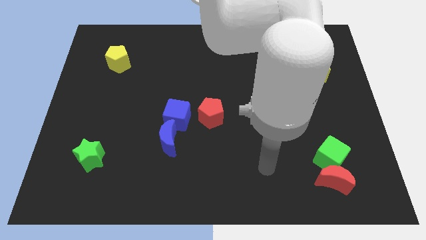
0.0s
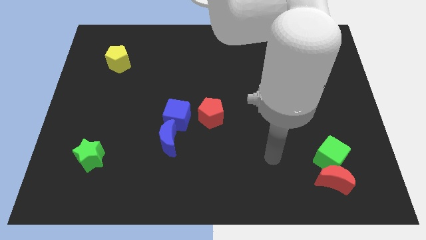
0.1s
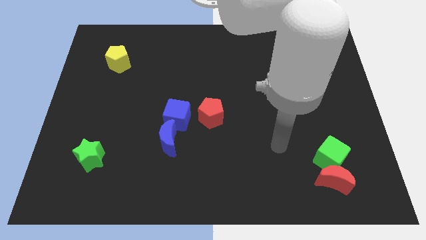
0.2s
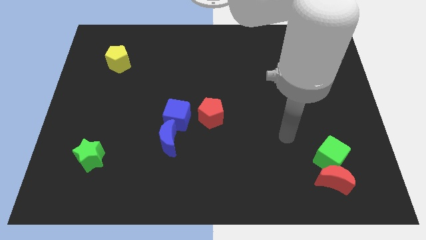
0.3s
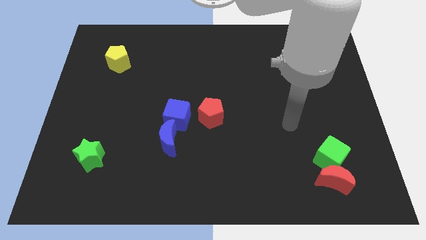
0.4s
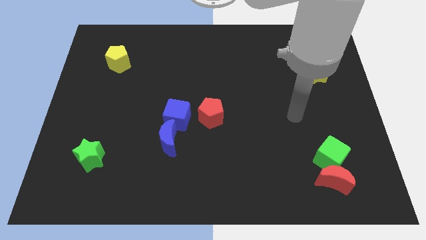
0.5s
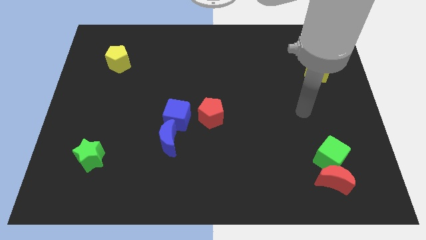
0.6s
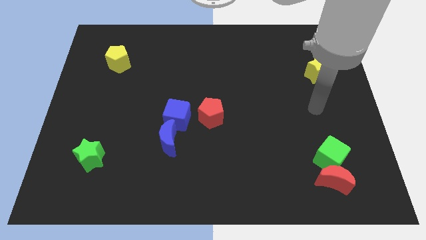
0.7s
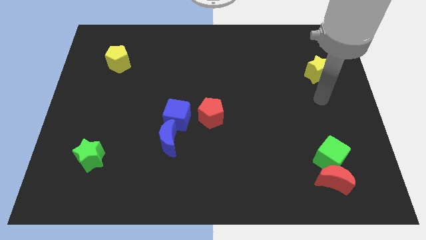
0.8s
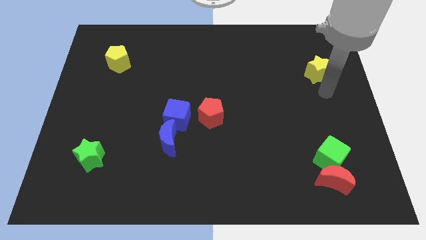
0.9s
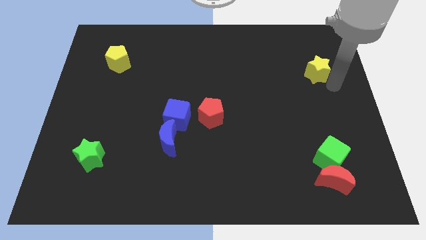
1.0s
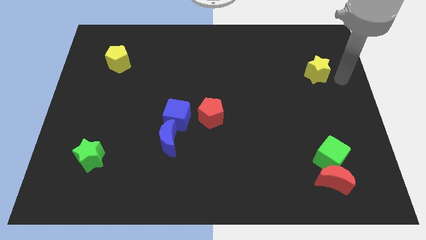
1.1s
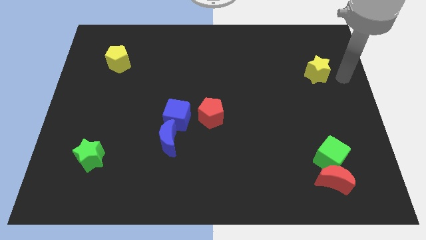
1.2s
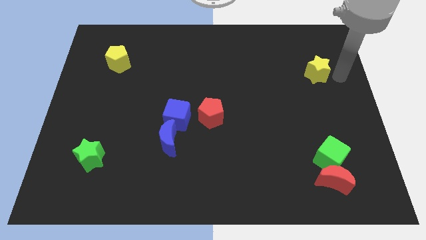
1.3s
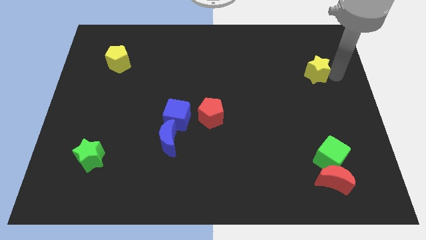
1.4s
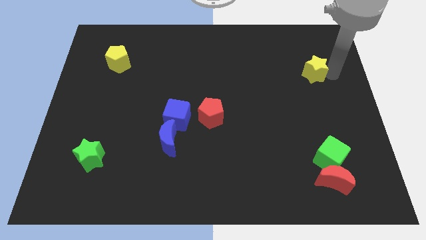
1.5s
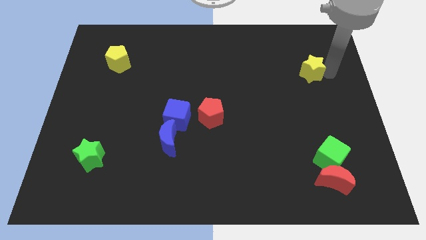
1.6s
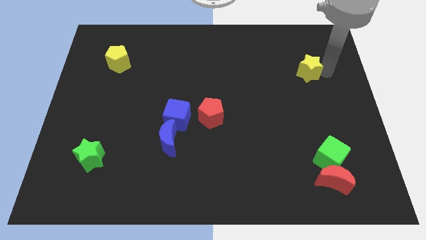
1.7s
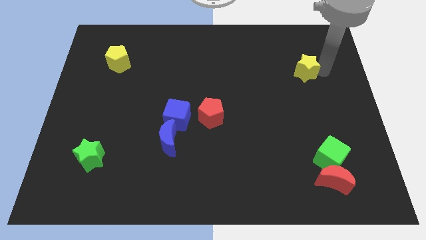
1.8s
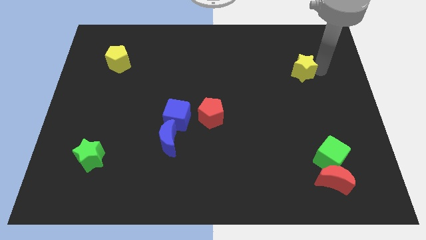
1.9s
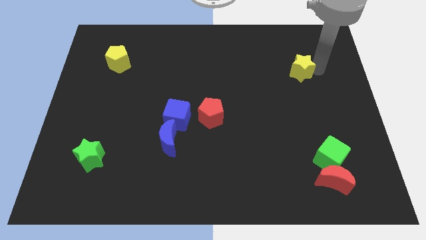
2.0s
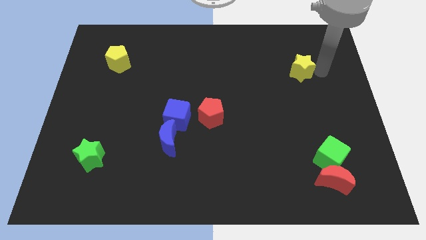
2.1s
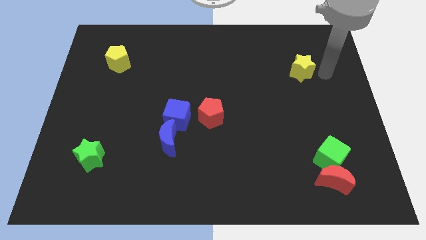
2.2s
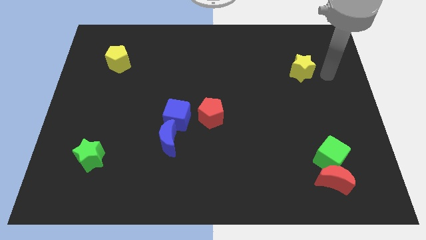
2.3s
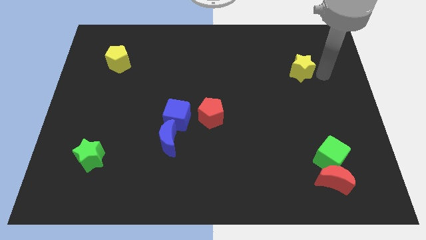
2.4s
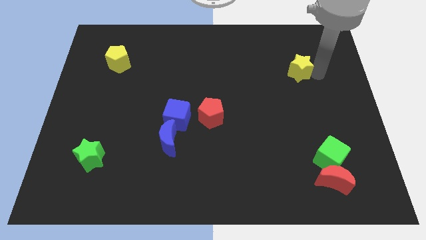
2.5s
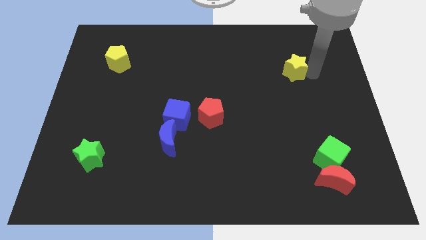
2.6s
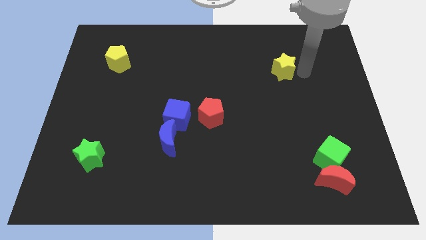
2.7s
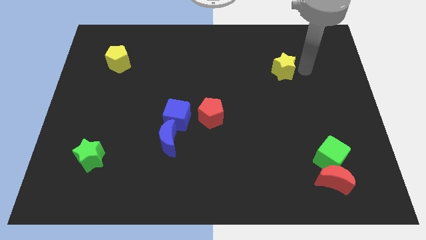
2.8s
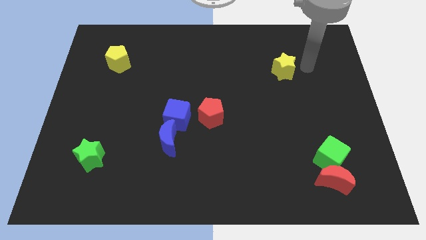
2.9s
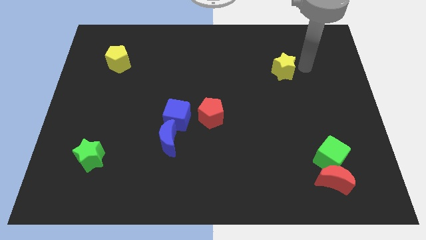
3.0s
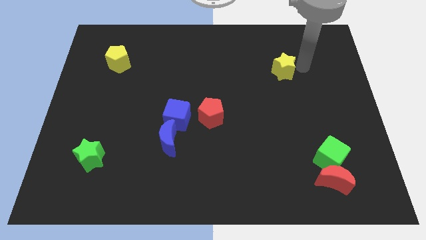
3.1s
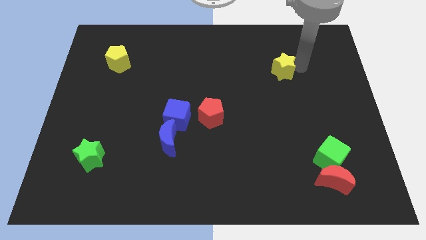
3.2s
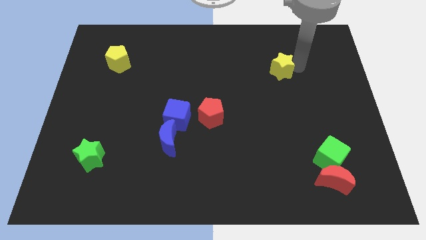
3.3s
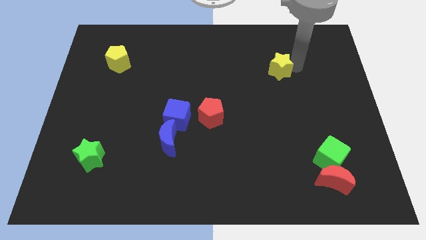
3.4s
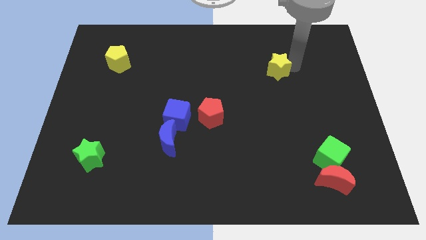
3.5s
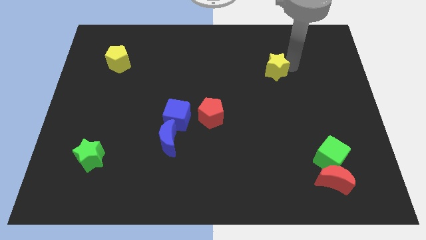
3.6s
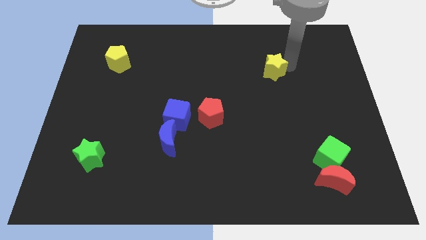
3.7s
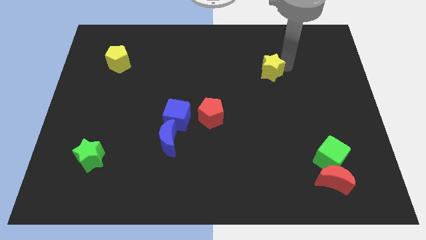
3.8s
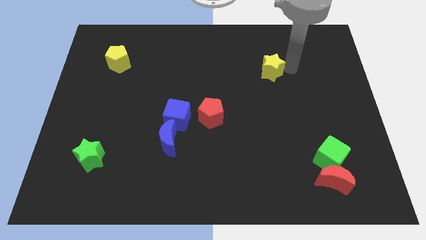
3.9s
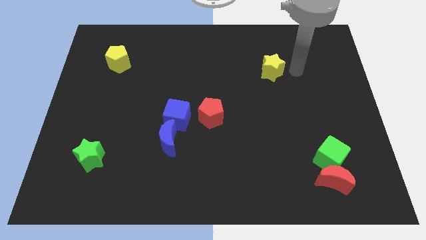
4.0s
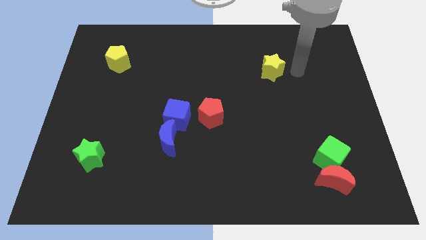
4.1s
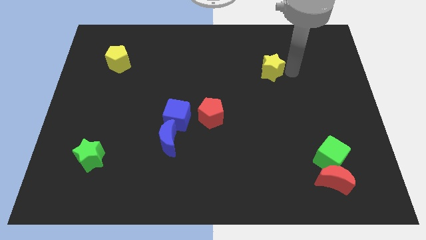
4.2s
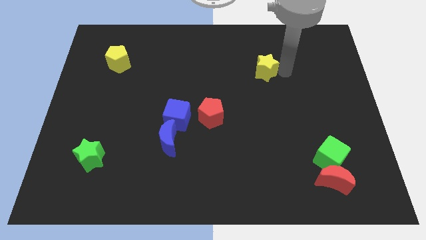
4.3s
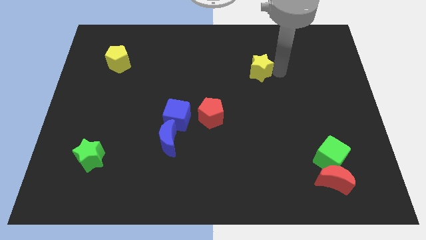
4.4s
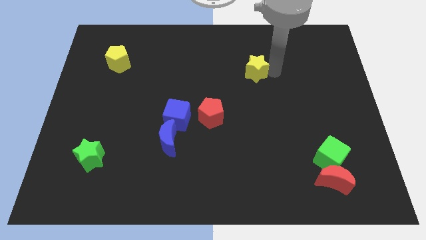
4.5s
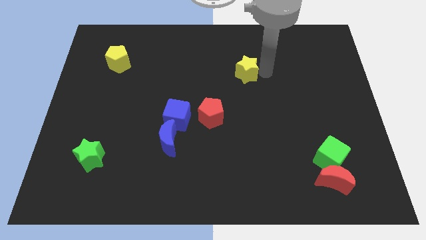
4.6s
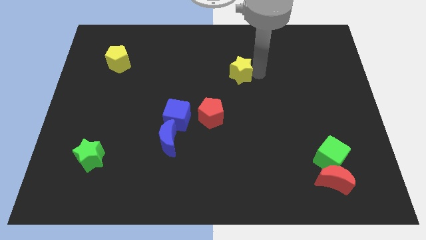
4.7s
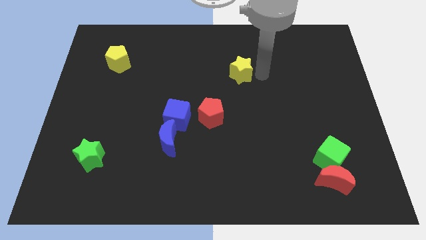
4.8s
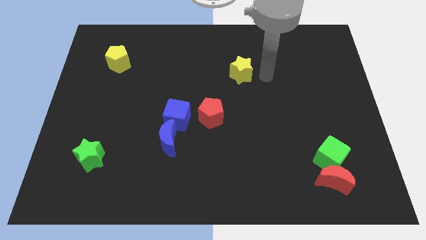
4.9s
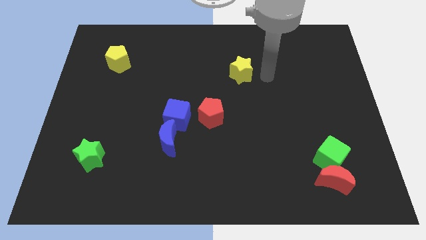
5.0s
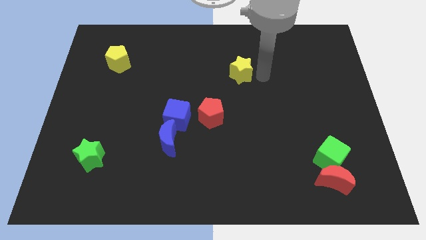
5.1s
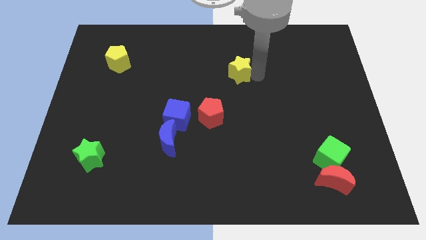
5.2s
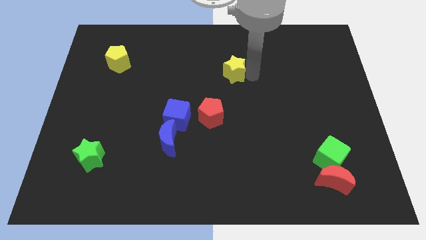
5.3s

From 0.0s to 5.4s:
move the yellow star left

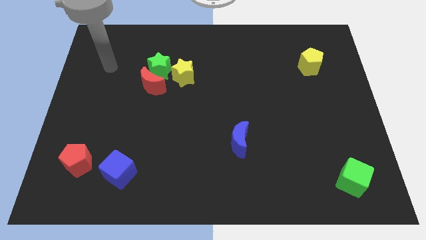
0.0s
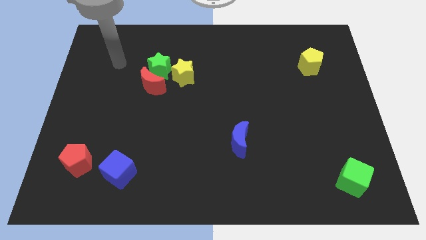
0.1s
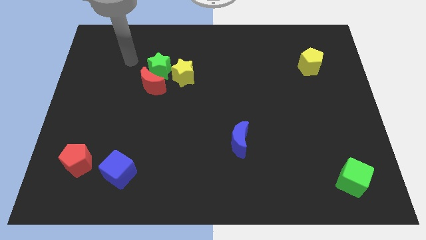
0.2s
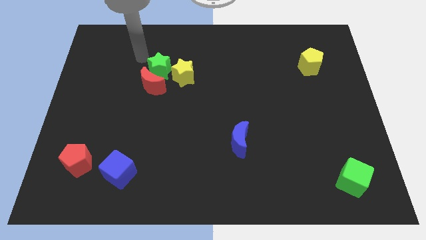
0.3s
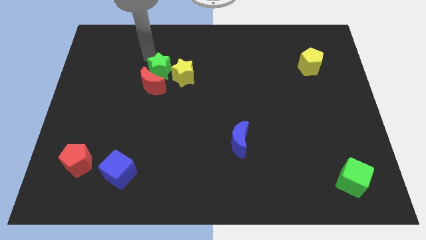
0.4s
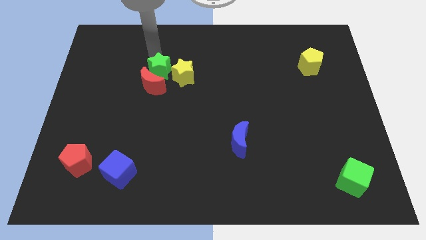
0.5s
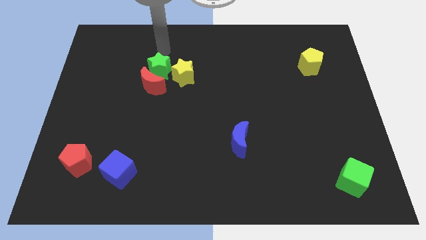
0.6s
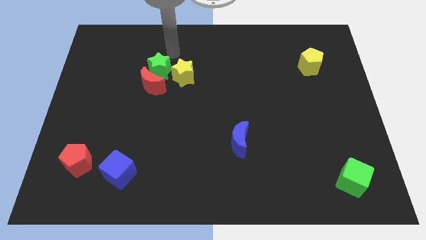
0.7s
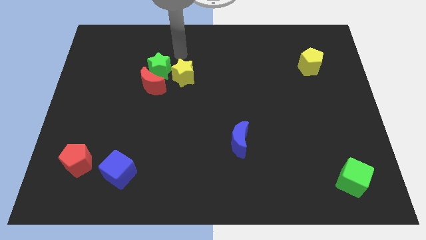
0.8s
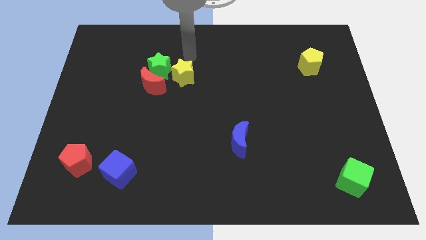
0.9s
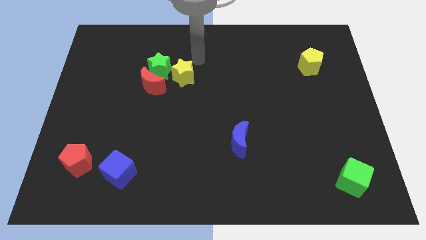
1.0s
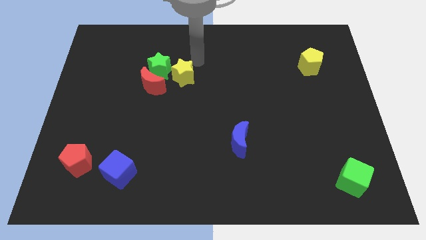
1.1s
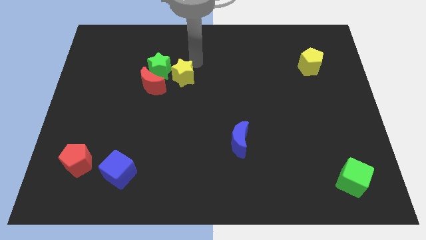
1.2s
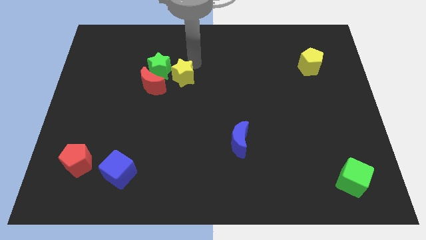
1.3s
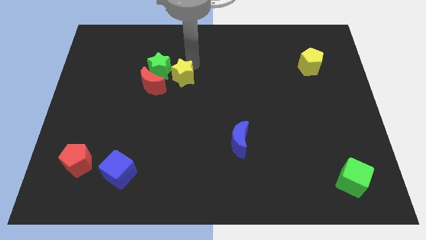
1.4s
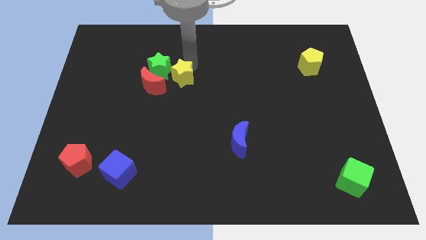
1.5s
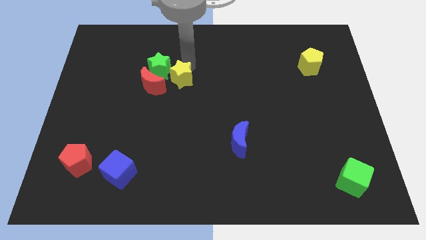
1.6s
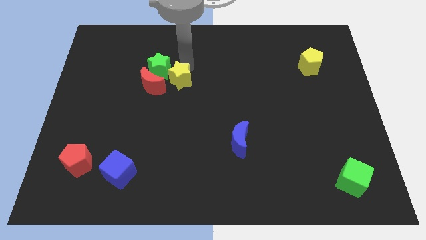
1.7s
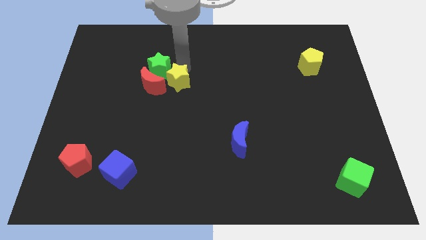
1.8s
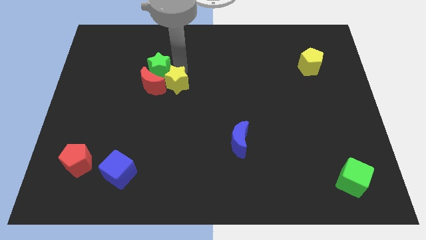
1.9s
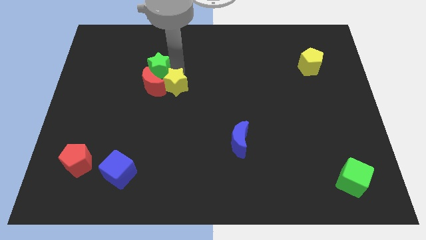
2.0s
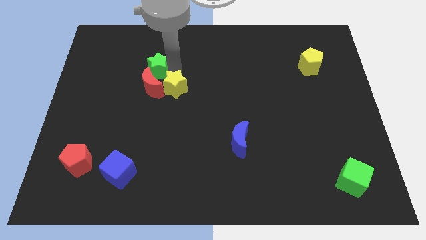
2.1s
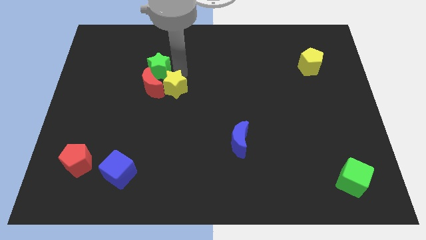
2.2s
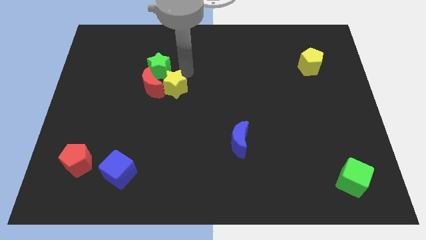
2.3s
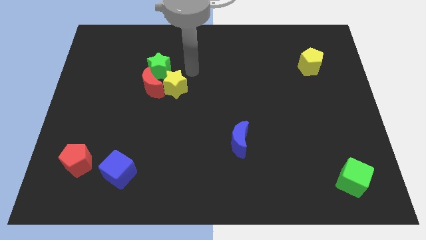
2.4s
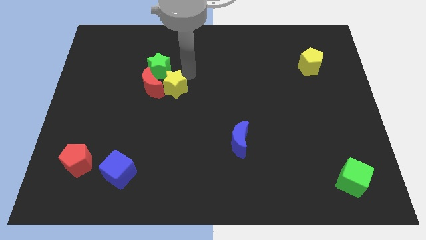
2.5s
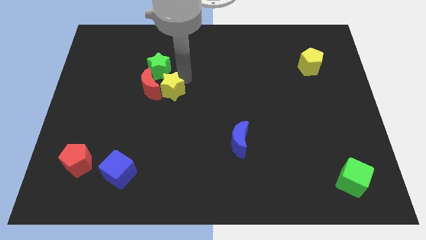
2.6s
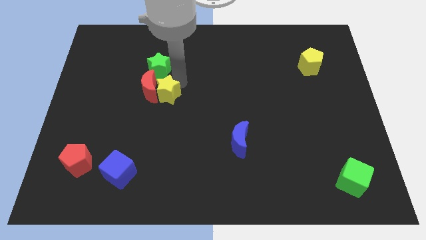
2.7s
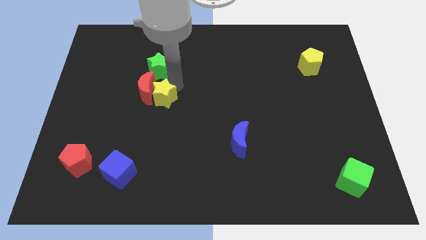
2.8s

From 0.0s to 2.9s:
slightly slide the yellow star down and to the left
